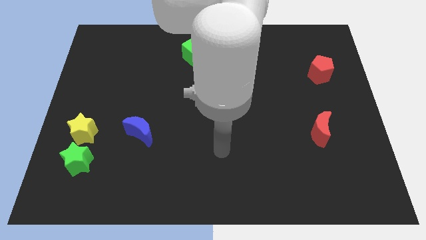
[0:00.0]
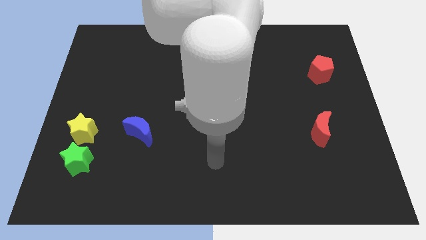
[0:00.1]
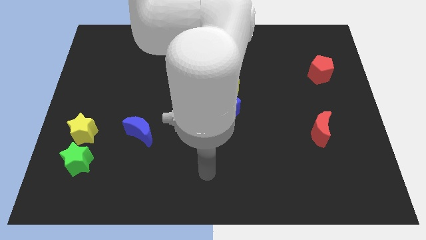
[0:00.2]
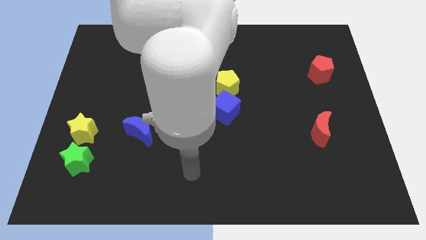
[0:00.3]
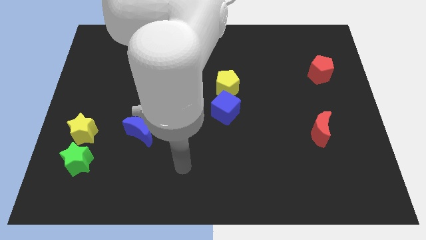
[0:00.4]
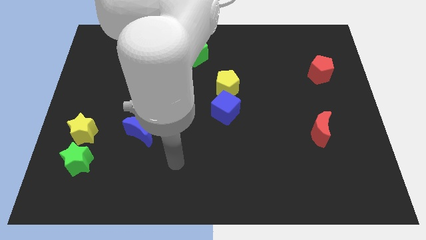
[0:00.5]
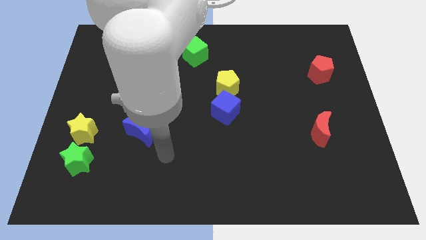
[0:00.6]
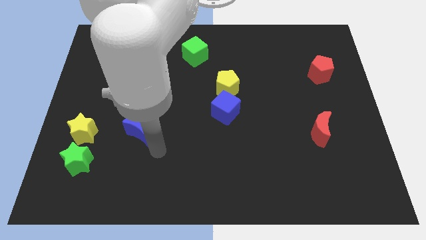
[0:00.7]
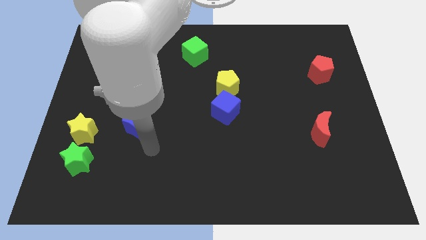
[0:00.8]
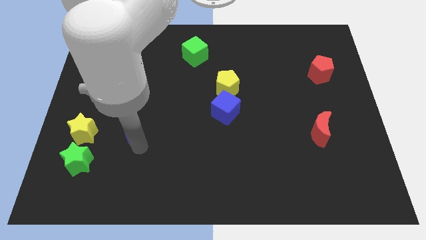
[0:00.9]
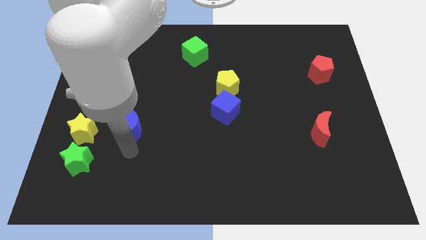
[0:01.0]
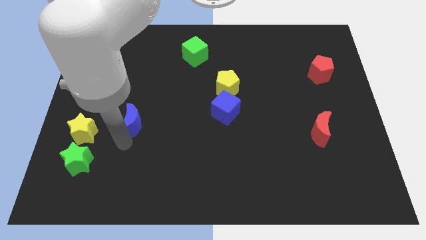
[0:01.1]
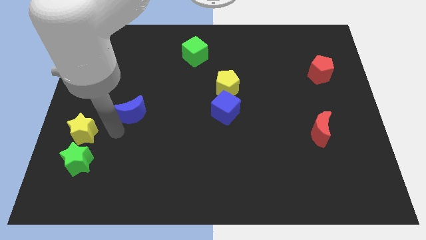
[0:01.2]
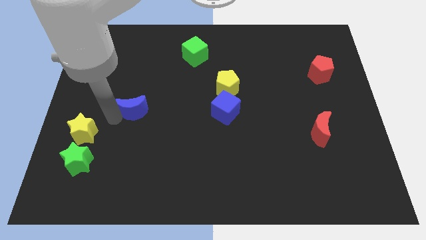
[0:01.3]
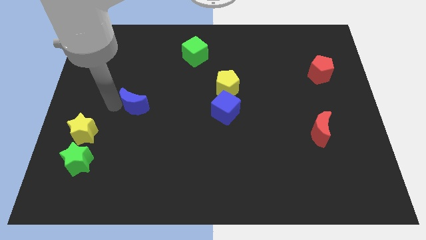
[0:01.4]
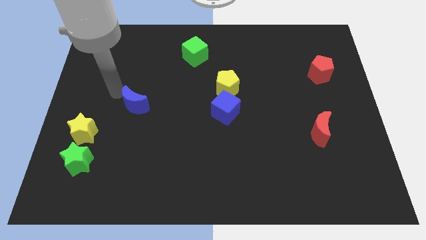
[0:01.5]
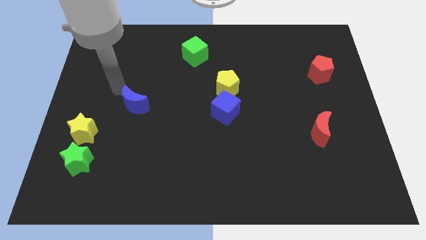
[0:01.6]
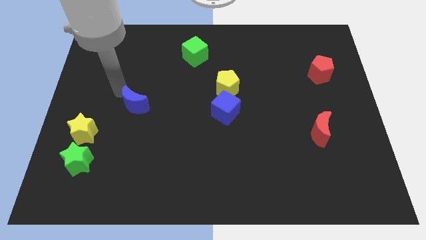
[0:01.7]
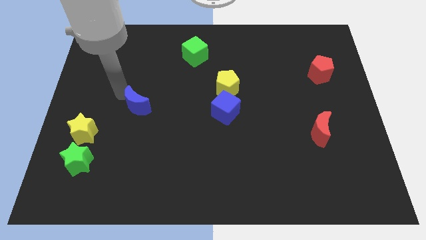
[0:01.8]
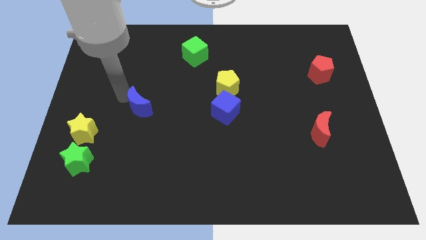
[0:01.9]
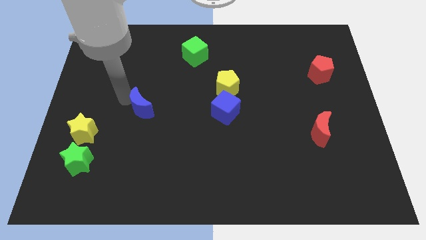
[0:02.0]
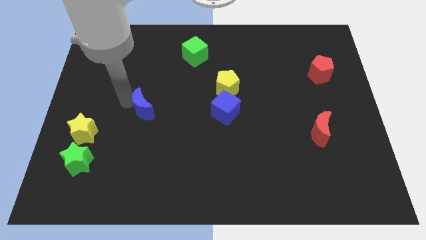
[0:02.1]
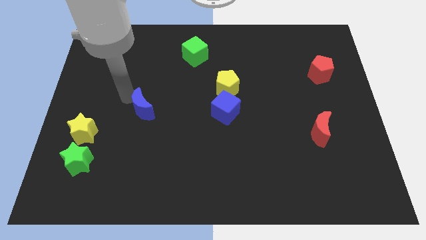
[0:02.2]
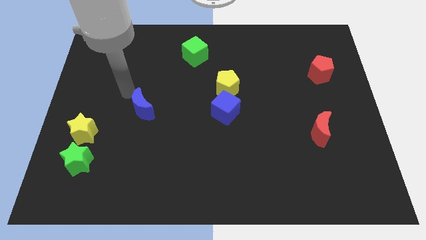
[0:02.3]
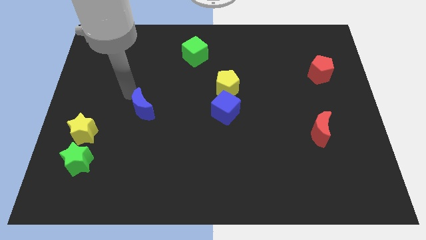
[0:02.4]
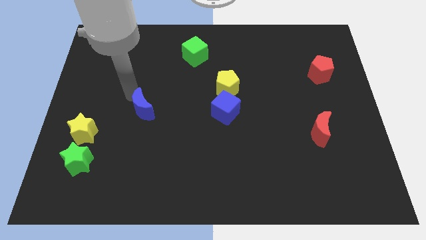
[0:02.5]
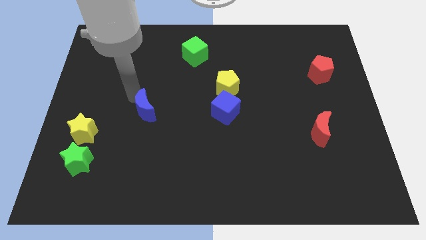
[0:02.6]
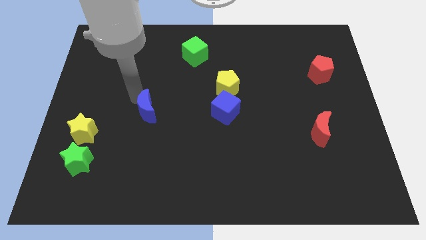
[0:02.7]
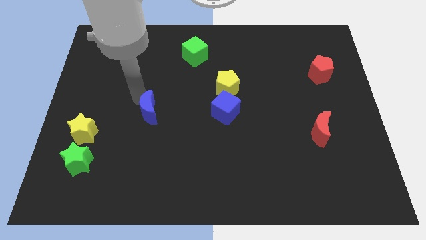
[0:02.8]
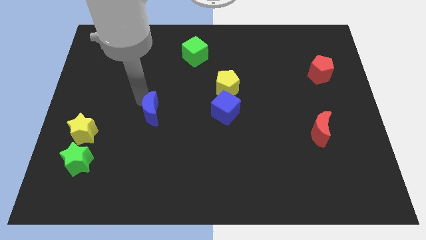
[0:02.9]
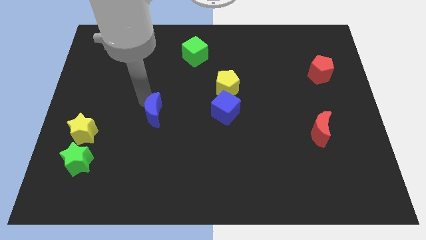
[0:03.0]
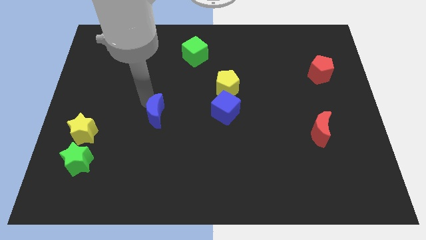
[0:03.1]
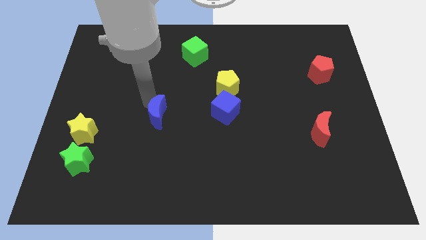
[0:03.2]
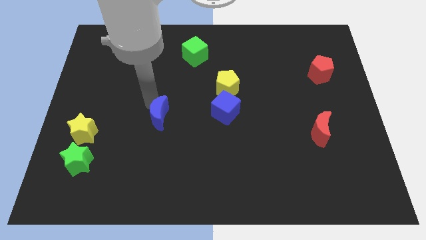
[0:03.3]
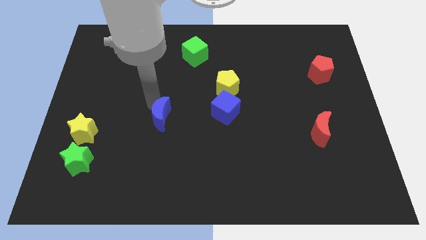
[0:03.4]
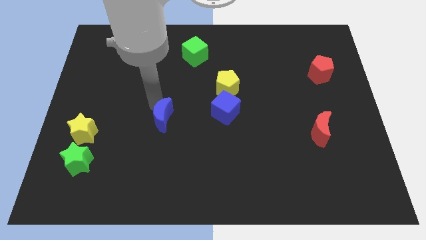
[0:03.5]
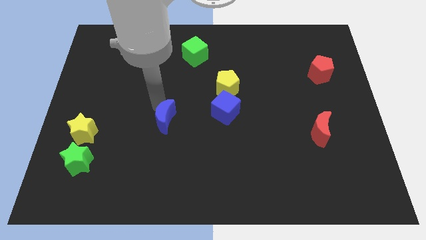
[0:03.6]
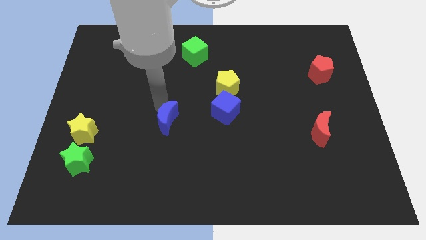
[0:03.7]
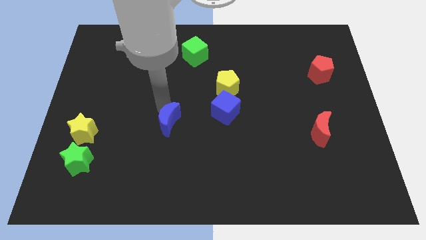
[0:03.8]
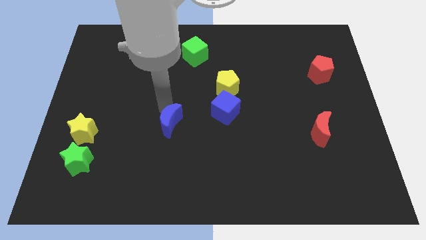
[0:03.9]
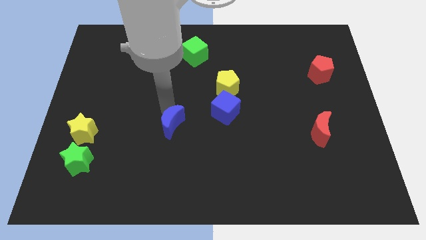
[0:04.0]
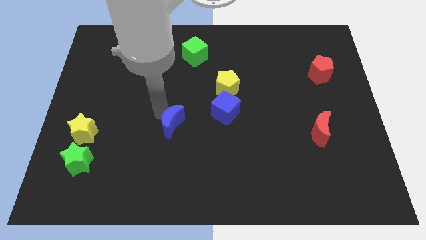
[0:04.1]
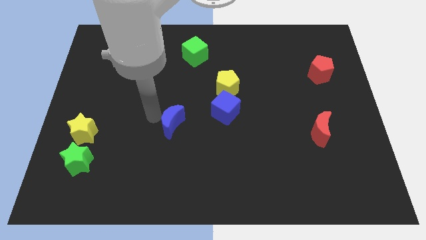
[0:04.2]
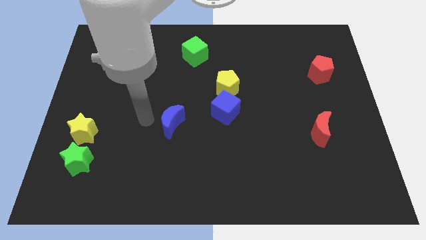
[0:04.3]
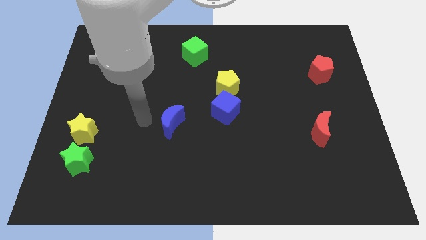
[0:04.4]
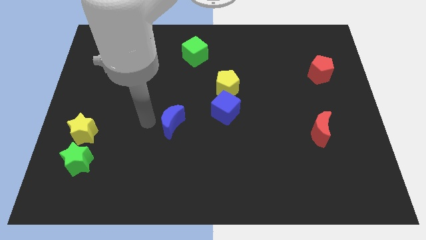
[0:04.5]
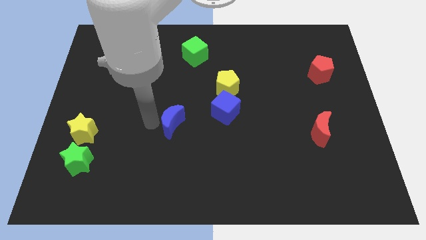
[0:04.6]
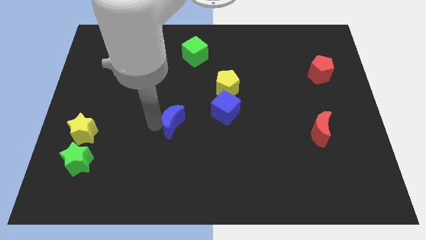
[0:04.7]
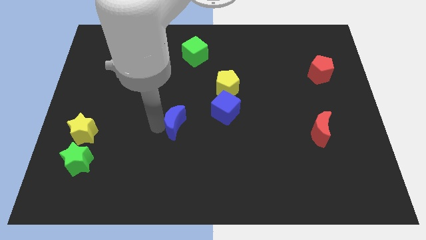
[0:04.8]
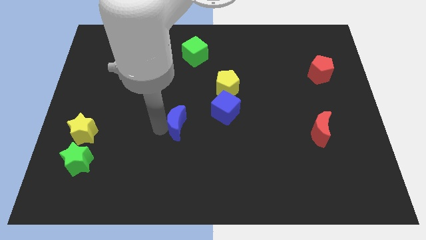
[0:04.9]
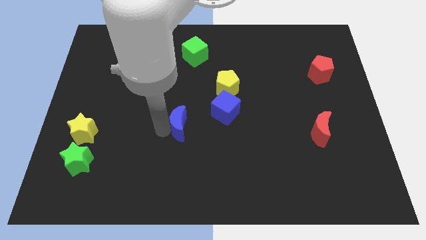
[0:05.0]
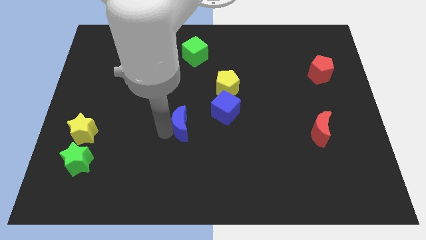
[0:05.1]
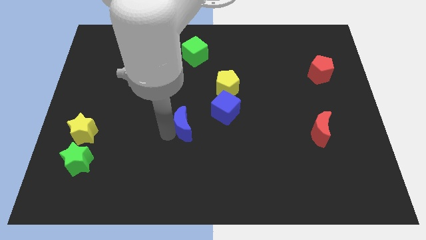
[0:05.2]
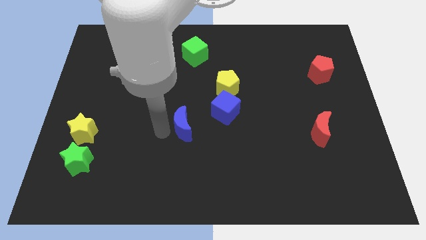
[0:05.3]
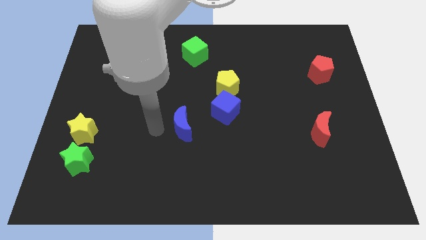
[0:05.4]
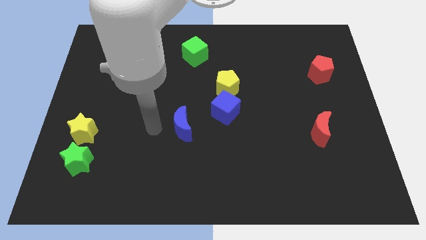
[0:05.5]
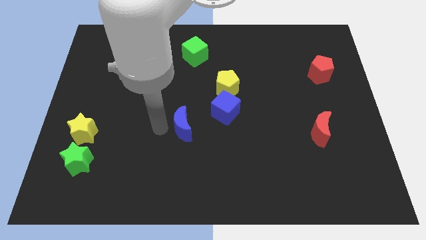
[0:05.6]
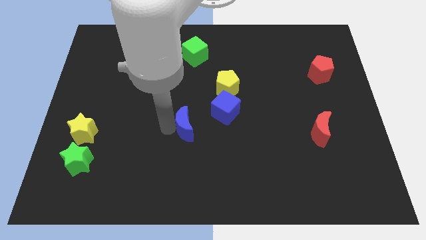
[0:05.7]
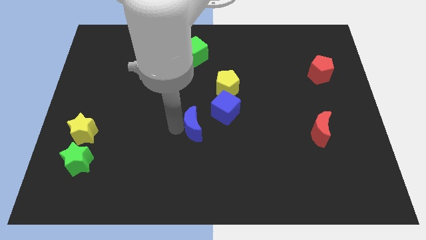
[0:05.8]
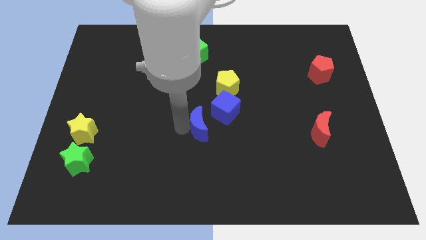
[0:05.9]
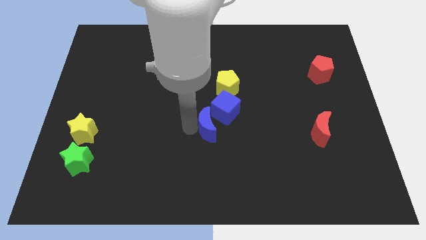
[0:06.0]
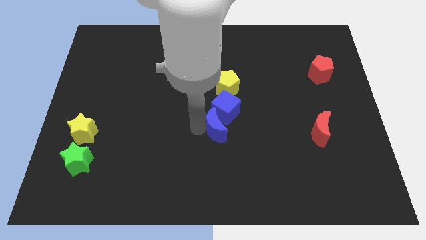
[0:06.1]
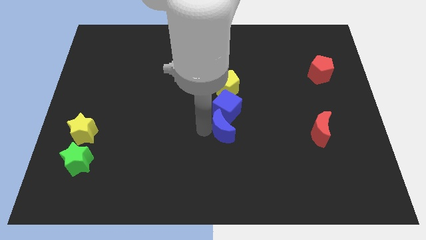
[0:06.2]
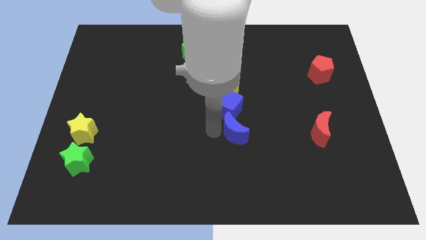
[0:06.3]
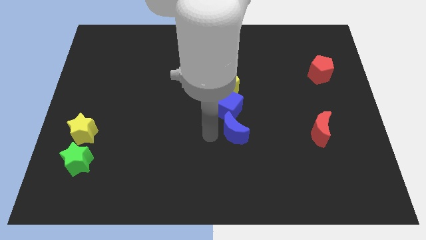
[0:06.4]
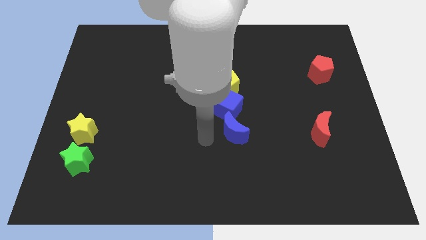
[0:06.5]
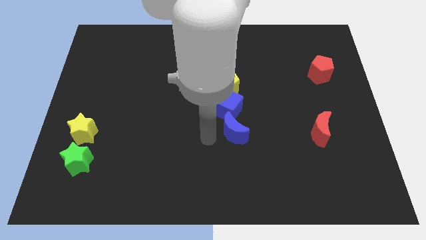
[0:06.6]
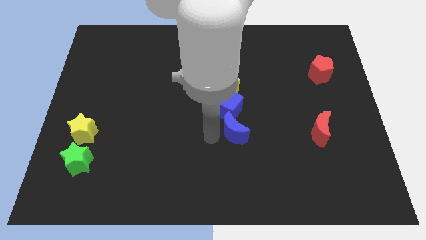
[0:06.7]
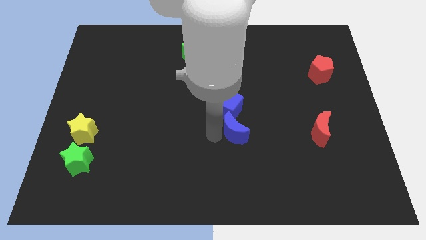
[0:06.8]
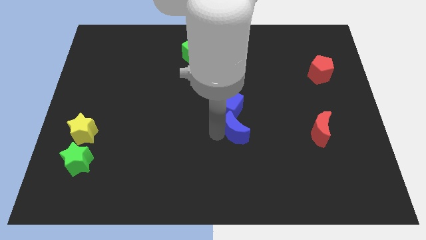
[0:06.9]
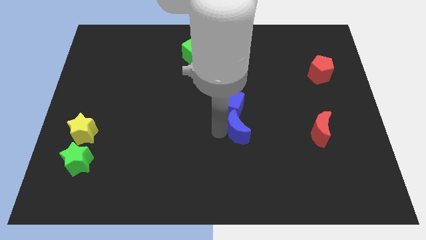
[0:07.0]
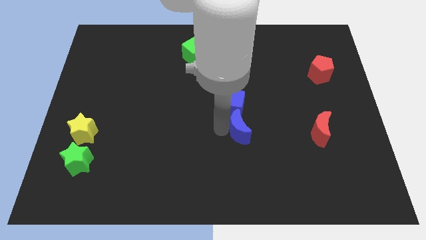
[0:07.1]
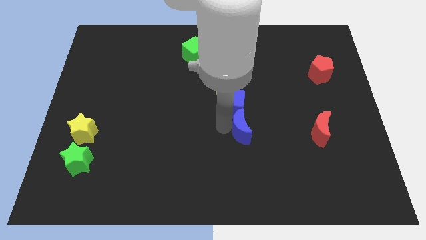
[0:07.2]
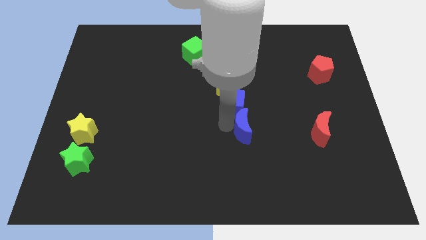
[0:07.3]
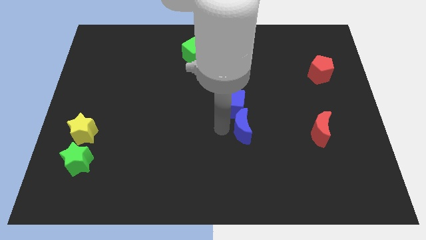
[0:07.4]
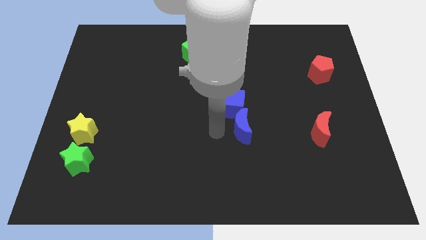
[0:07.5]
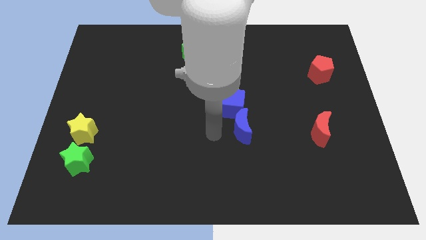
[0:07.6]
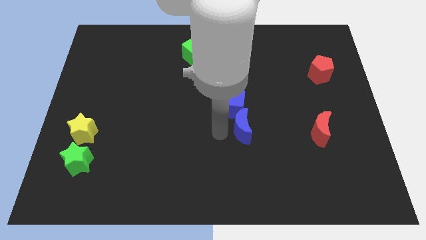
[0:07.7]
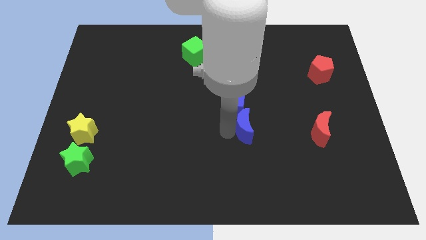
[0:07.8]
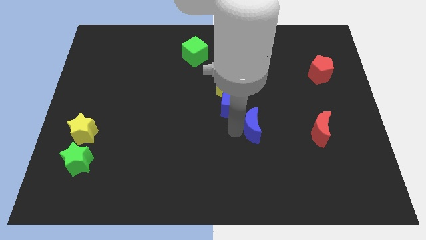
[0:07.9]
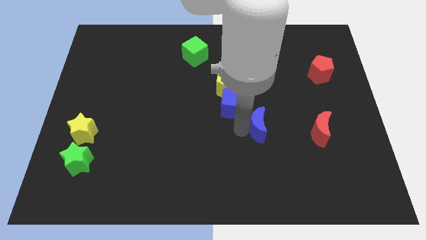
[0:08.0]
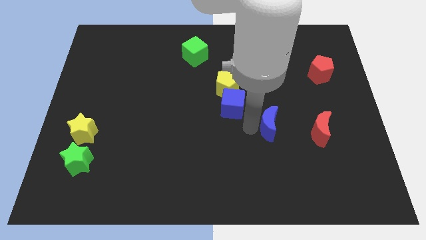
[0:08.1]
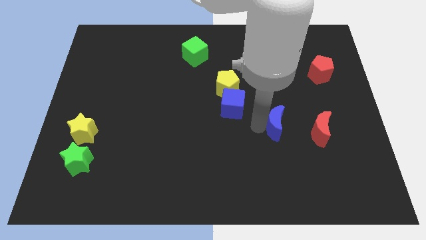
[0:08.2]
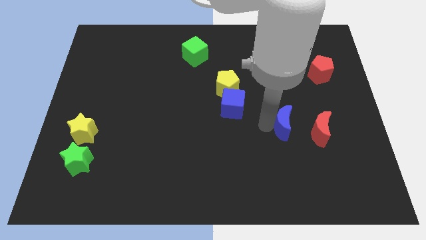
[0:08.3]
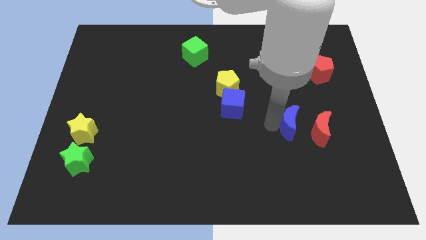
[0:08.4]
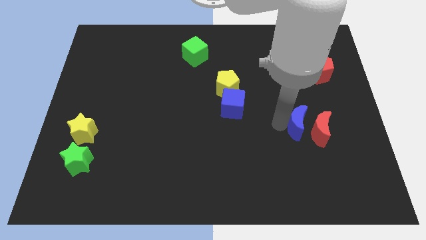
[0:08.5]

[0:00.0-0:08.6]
move the blue moon towards the red moon
